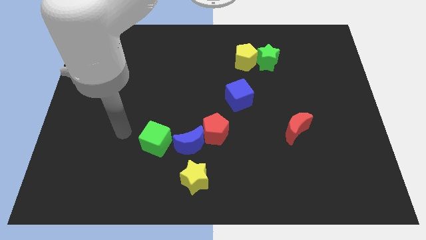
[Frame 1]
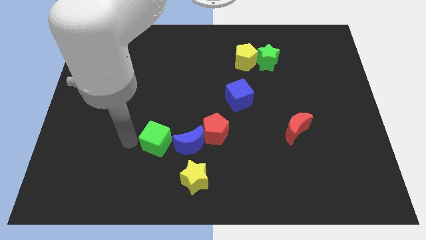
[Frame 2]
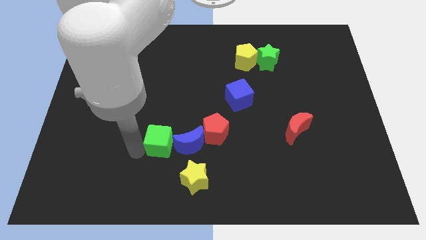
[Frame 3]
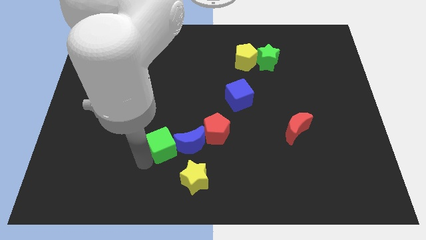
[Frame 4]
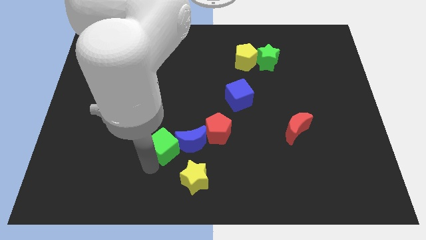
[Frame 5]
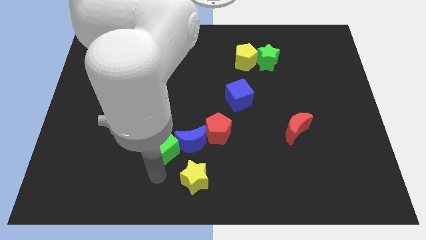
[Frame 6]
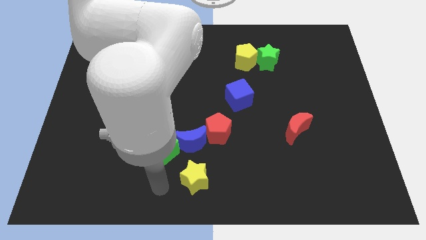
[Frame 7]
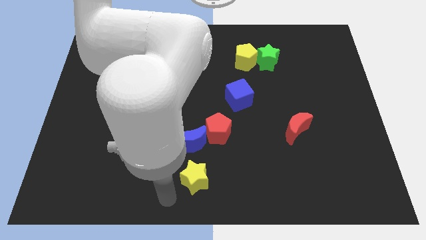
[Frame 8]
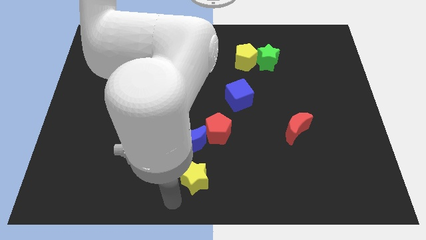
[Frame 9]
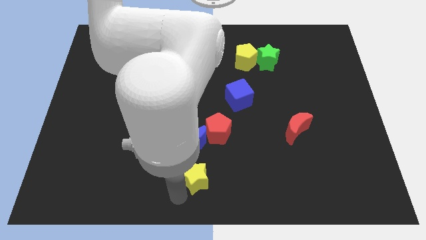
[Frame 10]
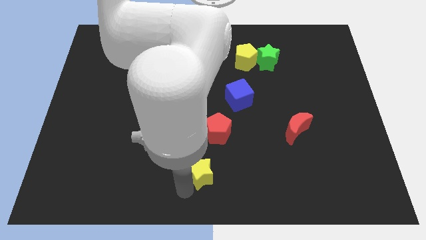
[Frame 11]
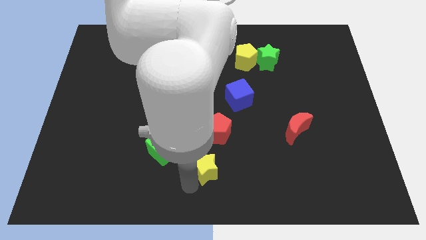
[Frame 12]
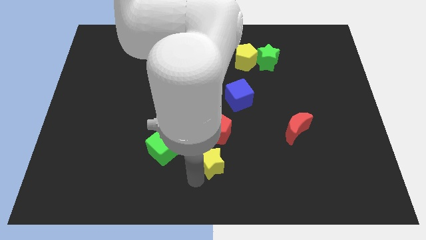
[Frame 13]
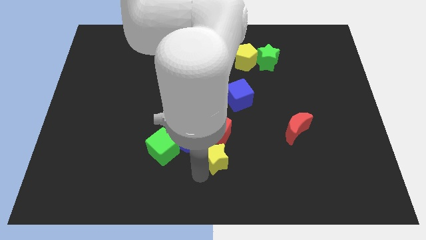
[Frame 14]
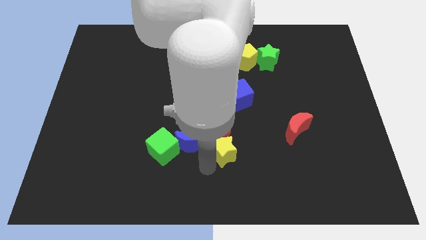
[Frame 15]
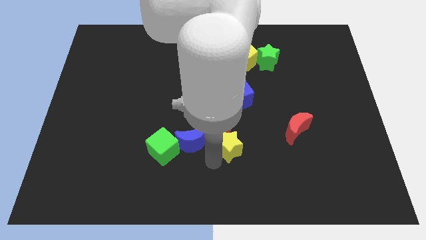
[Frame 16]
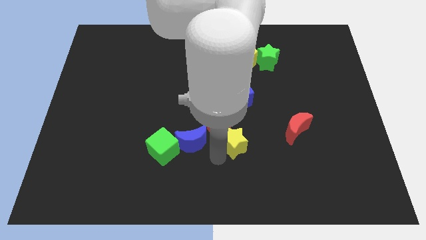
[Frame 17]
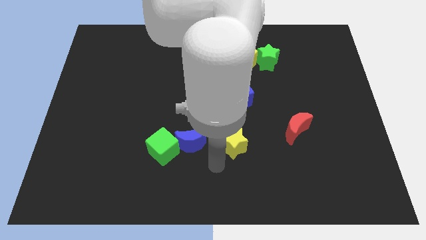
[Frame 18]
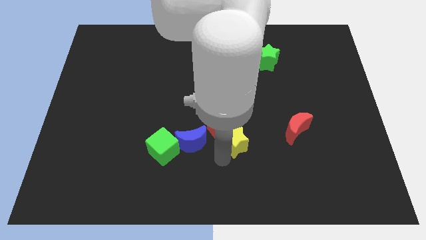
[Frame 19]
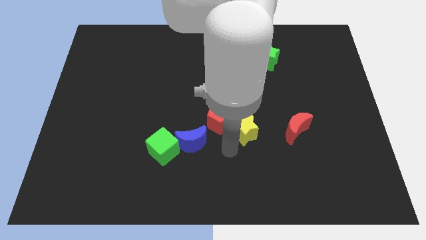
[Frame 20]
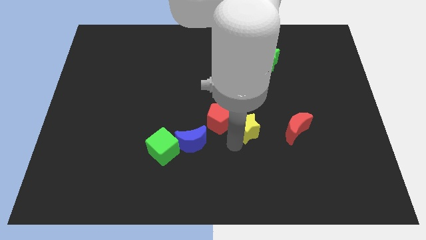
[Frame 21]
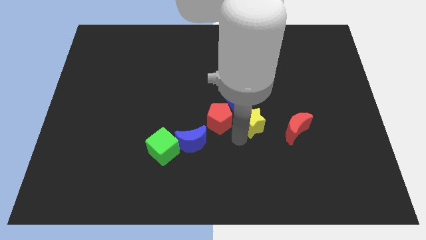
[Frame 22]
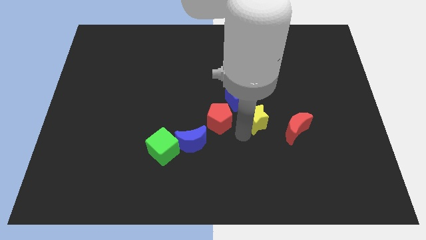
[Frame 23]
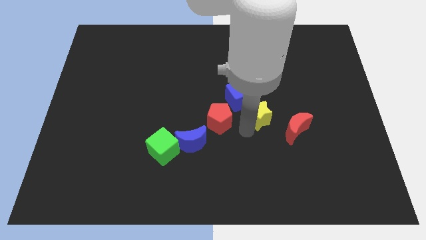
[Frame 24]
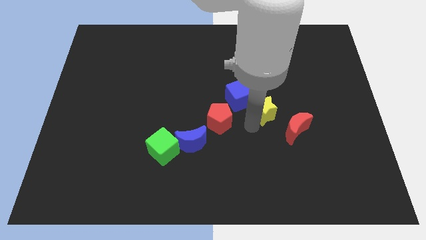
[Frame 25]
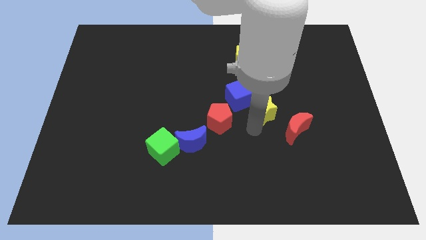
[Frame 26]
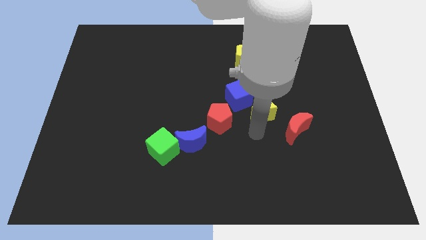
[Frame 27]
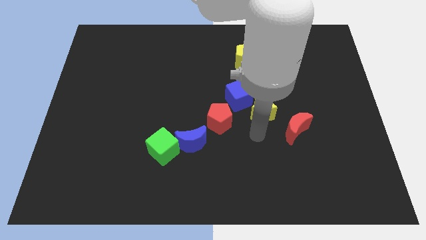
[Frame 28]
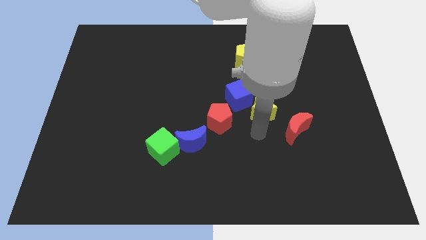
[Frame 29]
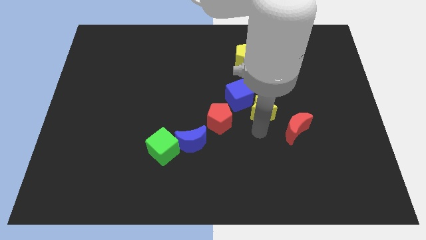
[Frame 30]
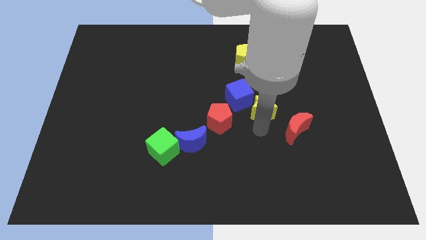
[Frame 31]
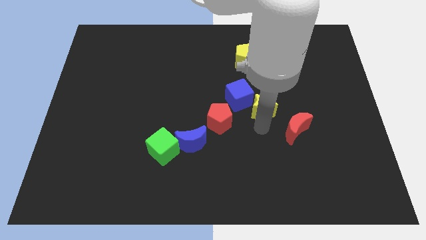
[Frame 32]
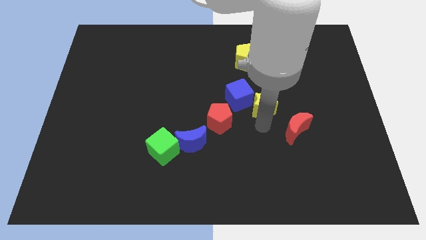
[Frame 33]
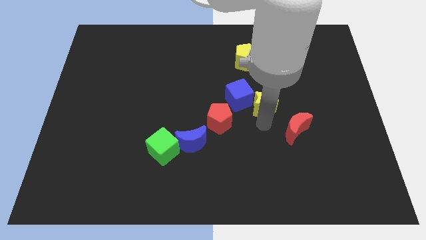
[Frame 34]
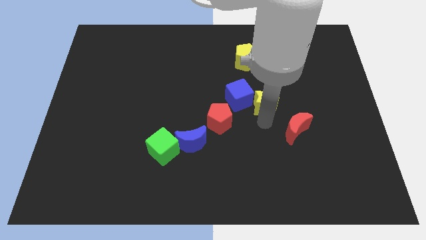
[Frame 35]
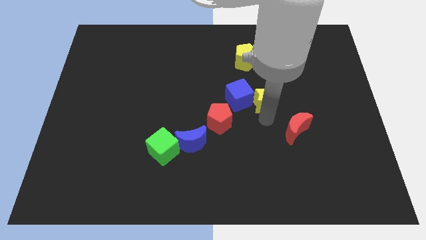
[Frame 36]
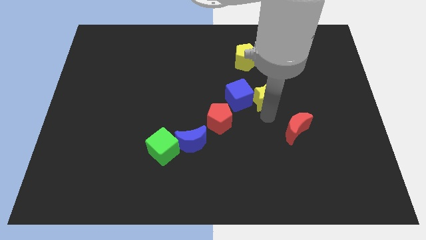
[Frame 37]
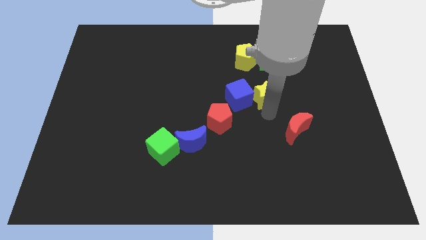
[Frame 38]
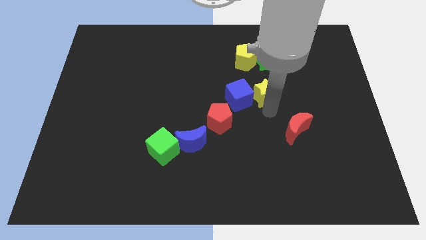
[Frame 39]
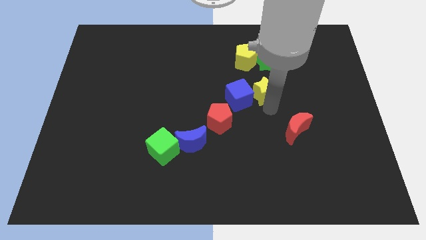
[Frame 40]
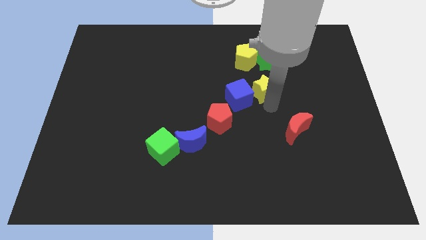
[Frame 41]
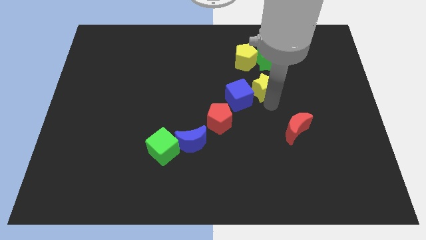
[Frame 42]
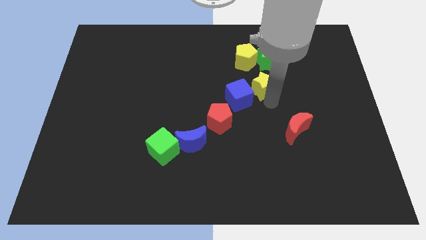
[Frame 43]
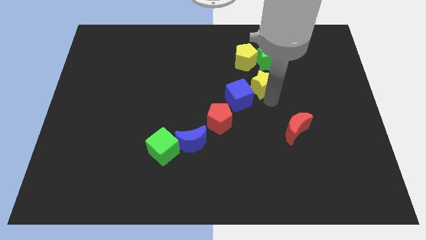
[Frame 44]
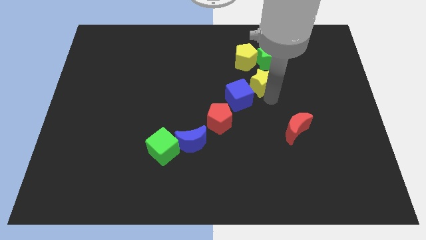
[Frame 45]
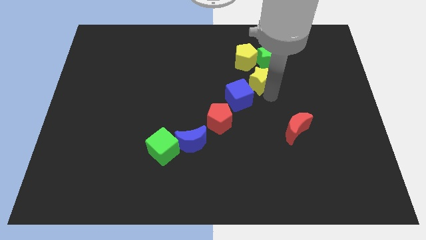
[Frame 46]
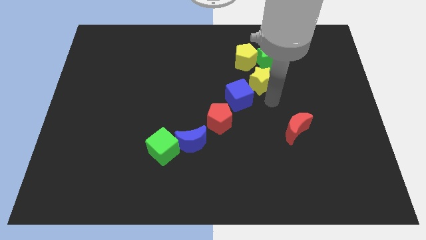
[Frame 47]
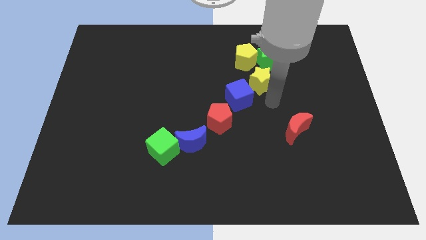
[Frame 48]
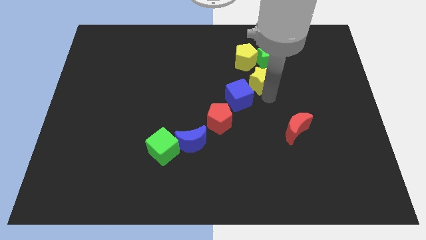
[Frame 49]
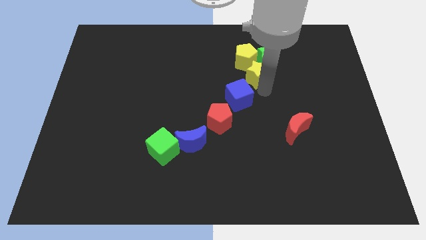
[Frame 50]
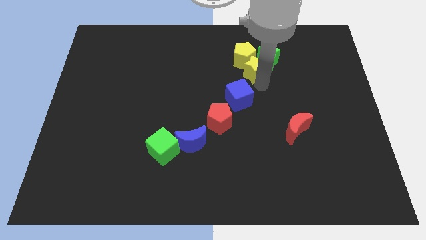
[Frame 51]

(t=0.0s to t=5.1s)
put the yellow star next to the yellow pentagon

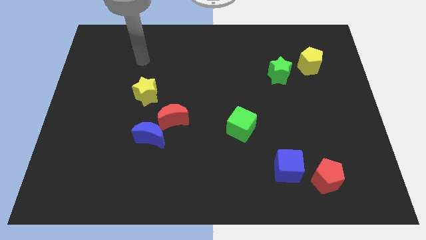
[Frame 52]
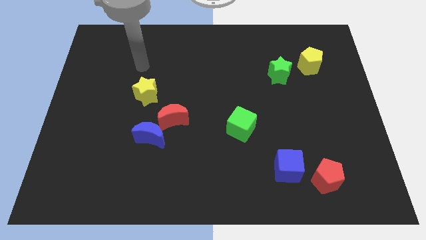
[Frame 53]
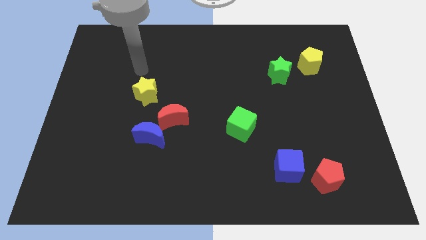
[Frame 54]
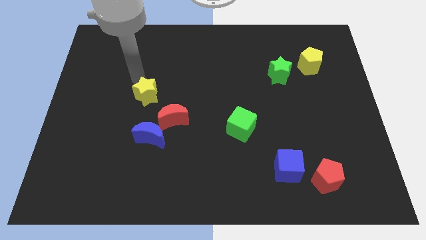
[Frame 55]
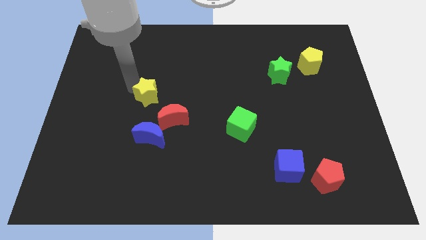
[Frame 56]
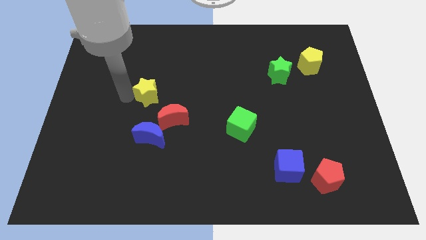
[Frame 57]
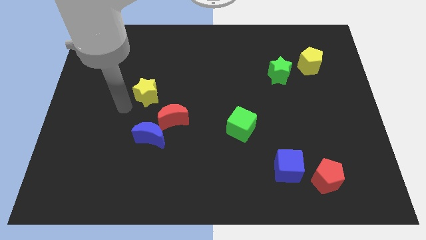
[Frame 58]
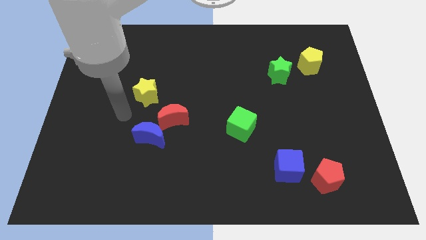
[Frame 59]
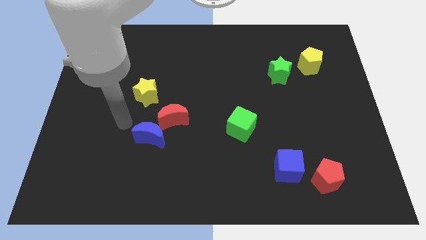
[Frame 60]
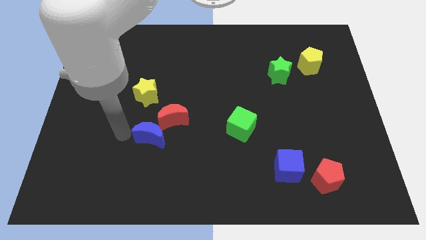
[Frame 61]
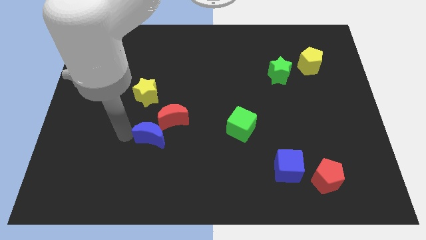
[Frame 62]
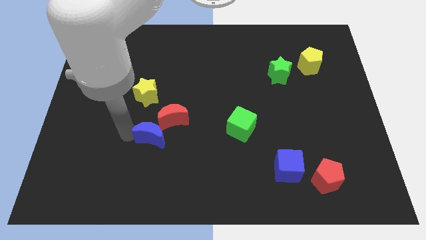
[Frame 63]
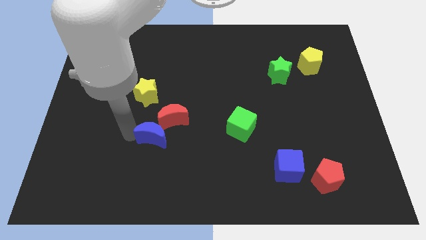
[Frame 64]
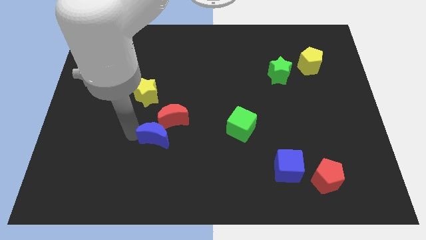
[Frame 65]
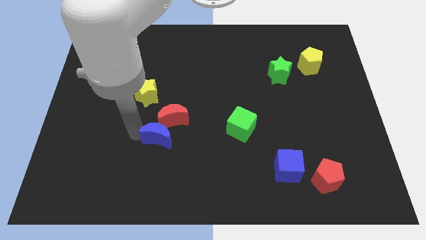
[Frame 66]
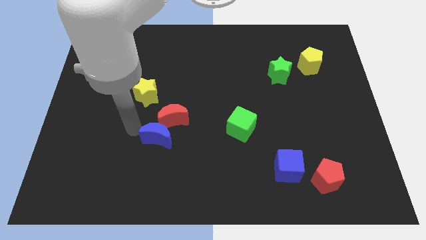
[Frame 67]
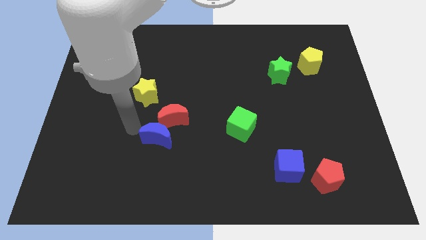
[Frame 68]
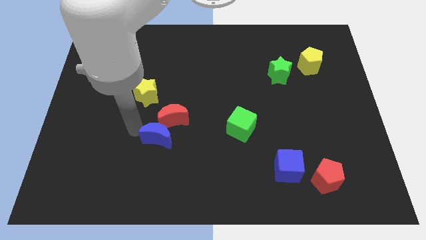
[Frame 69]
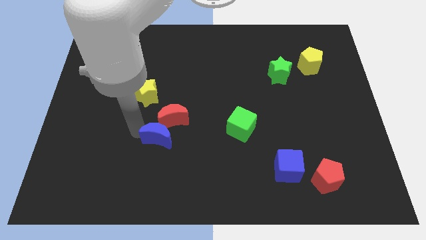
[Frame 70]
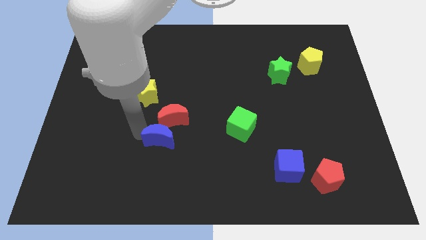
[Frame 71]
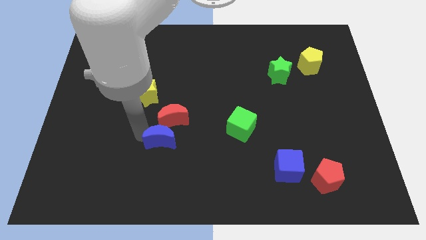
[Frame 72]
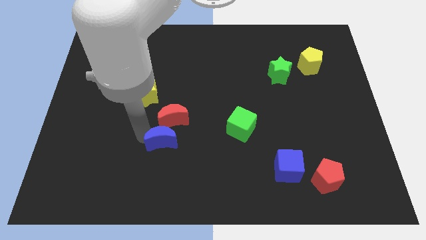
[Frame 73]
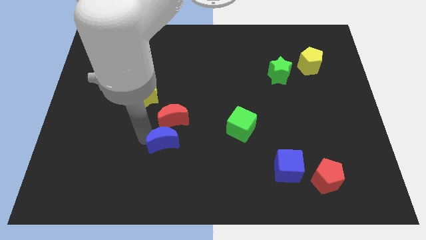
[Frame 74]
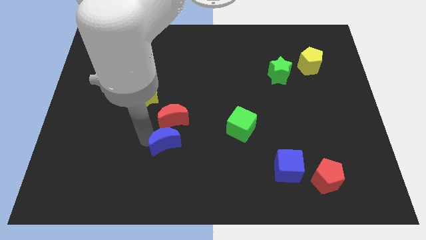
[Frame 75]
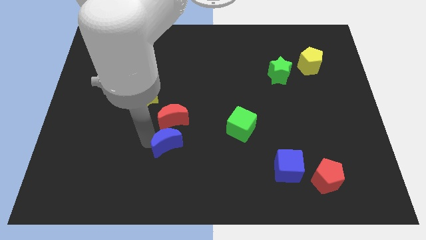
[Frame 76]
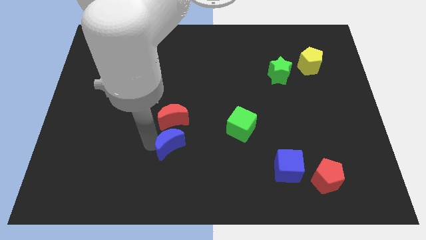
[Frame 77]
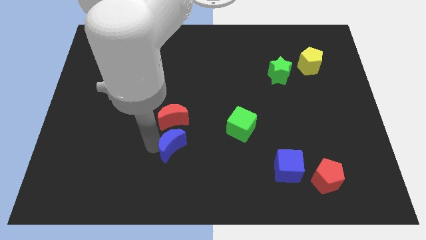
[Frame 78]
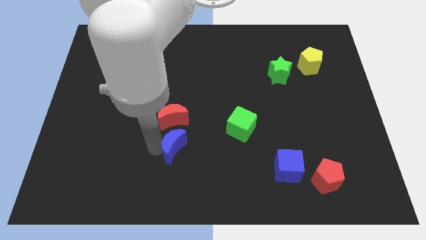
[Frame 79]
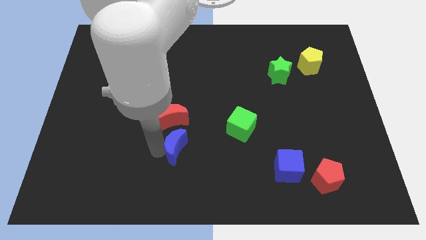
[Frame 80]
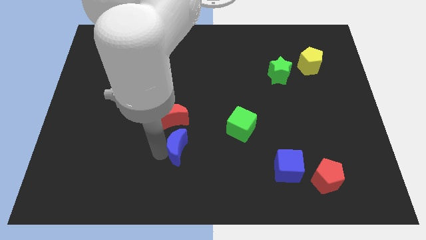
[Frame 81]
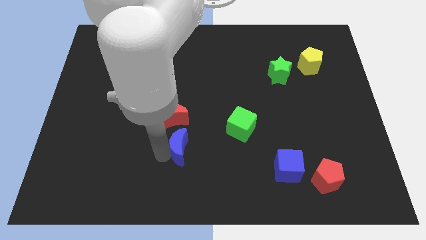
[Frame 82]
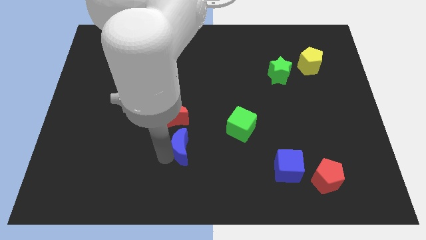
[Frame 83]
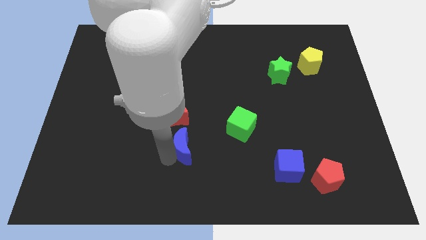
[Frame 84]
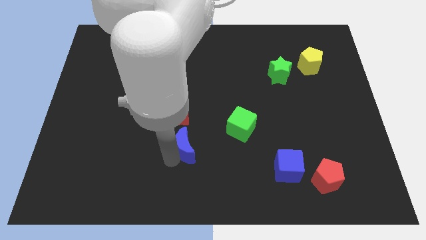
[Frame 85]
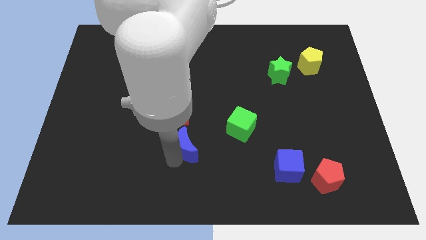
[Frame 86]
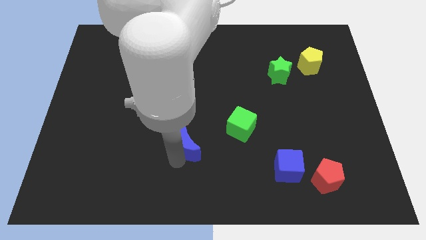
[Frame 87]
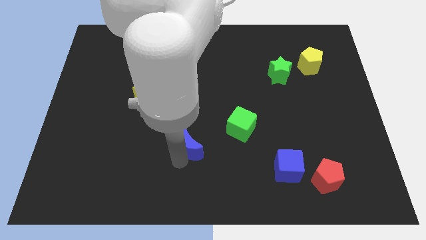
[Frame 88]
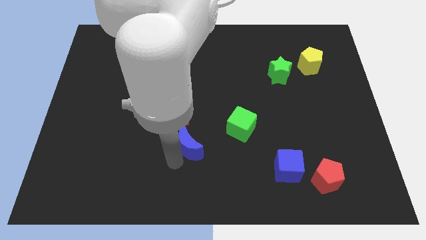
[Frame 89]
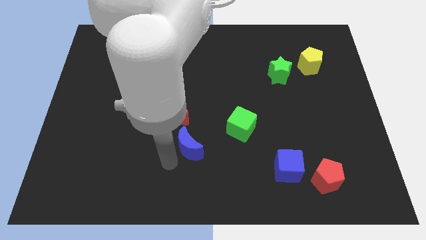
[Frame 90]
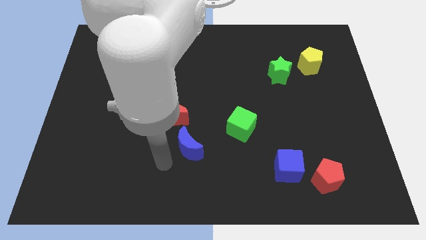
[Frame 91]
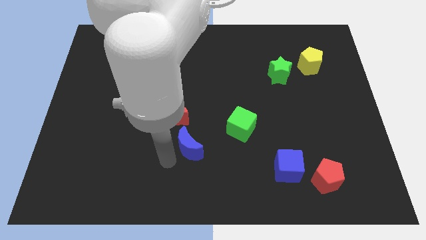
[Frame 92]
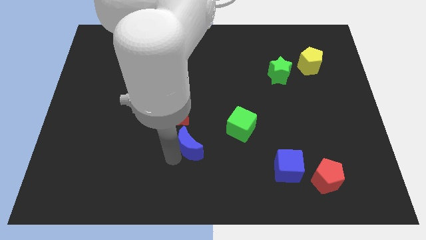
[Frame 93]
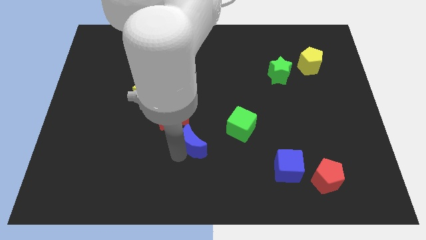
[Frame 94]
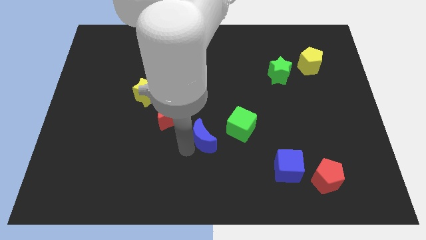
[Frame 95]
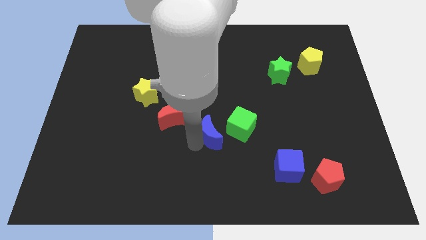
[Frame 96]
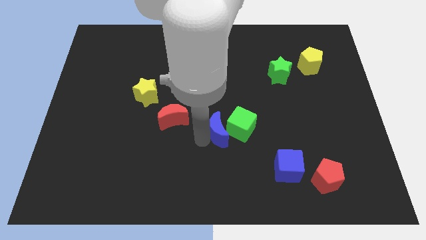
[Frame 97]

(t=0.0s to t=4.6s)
slide the blue moon to the green cube
